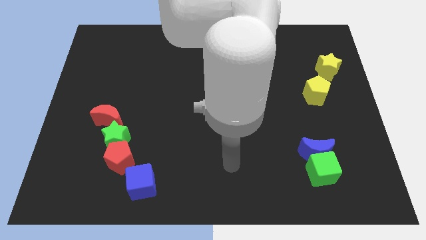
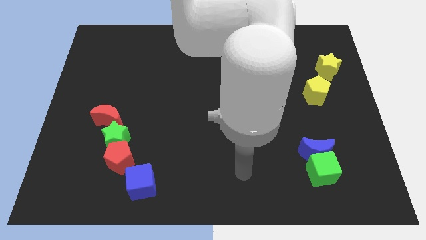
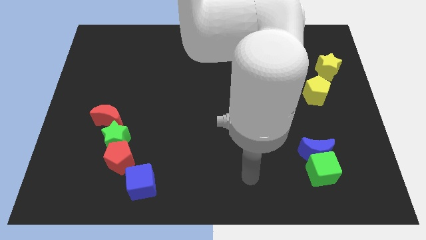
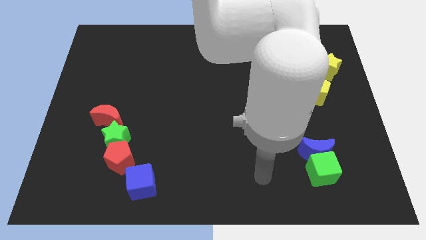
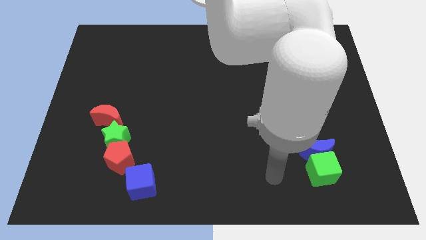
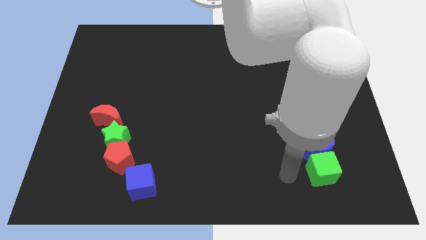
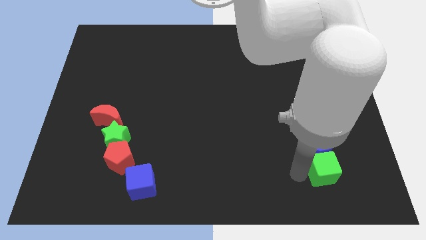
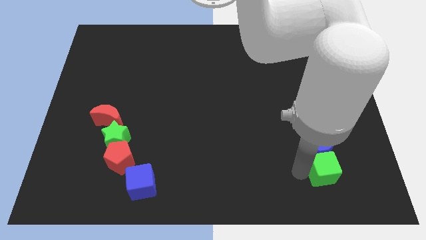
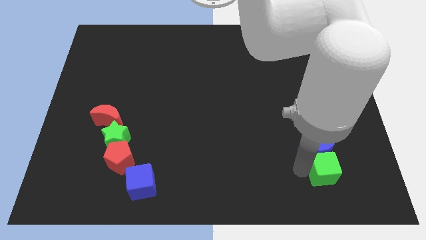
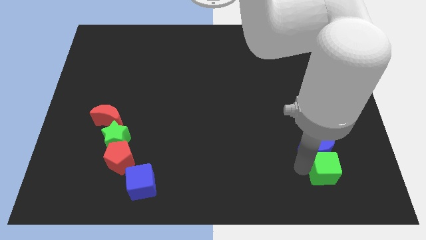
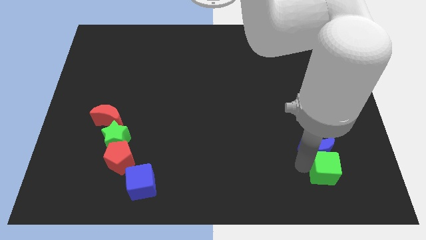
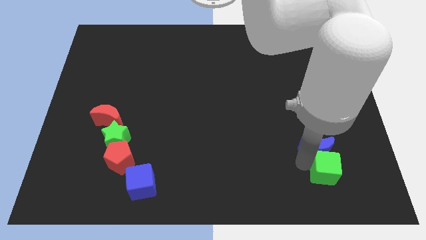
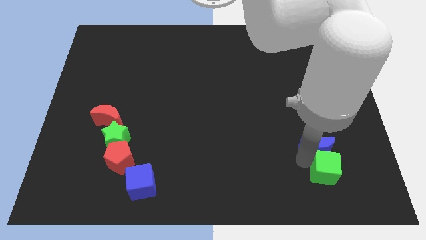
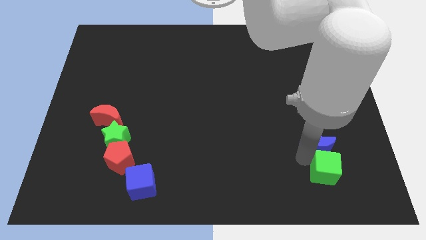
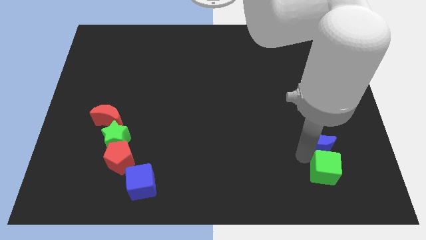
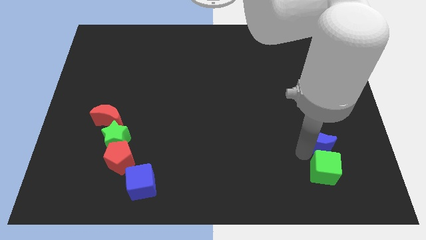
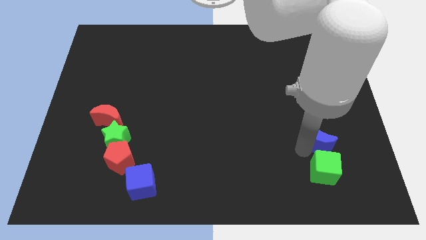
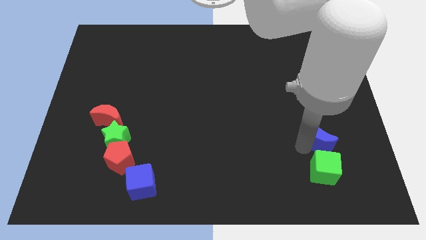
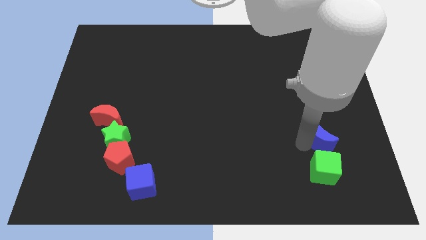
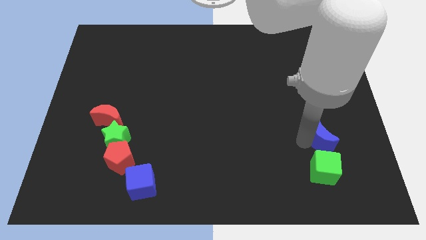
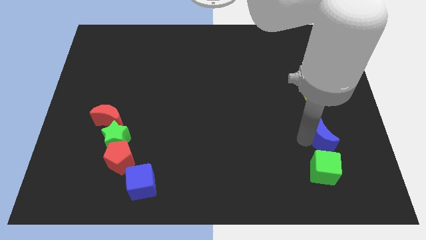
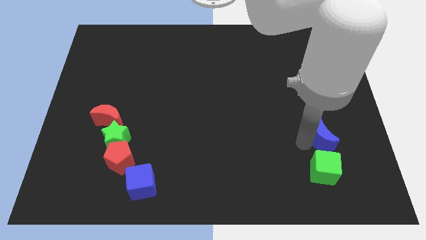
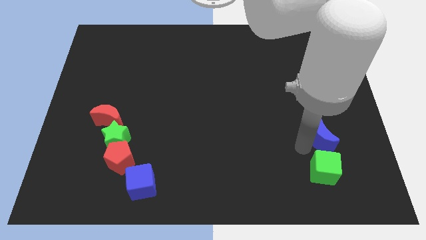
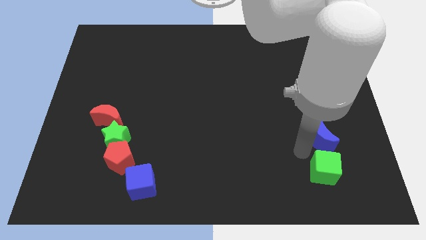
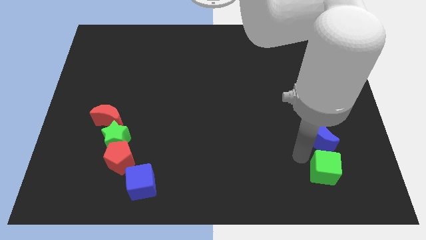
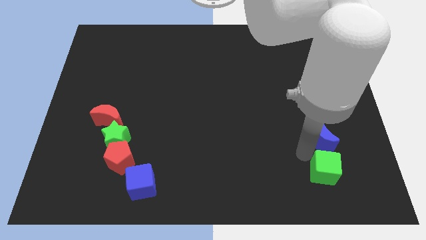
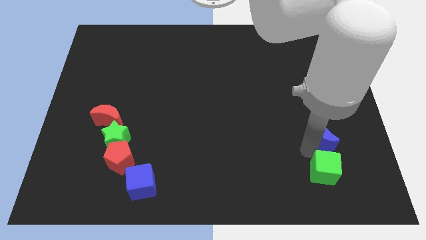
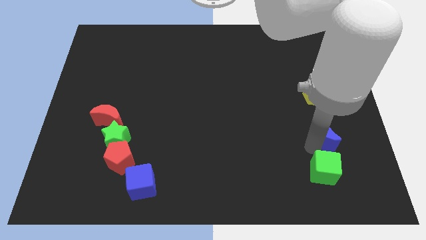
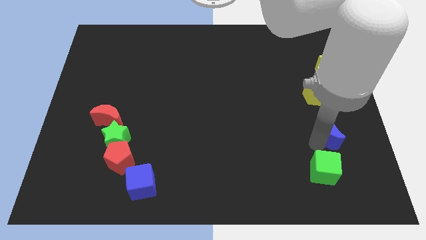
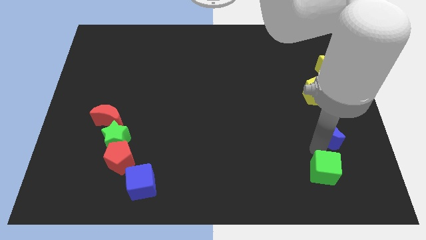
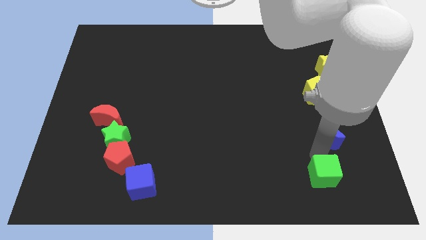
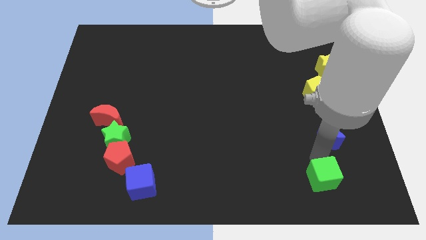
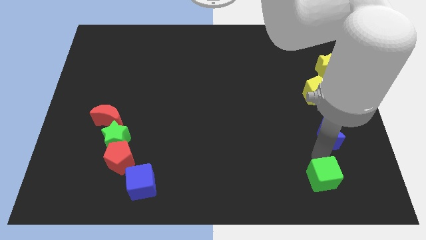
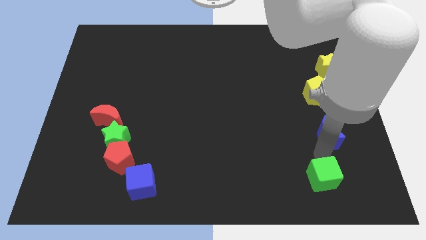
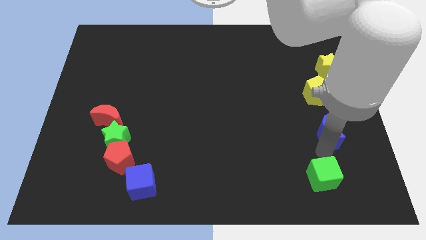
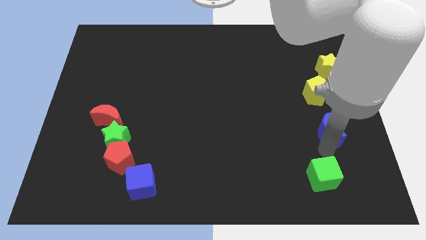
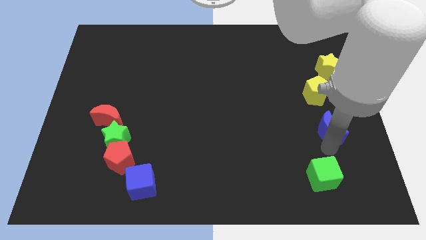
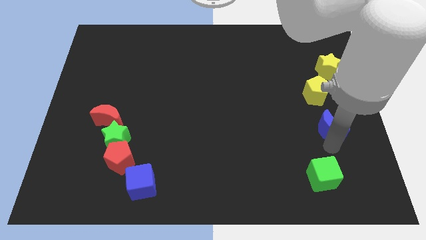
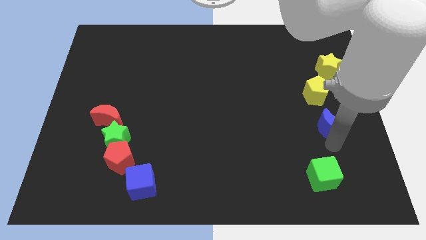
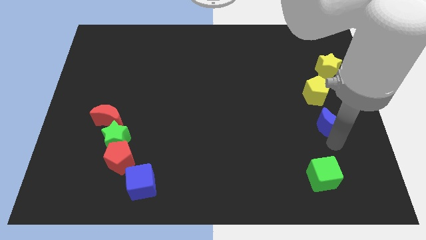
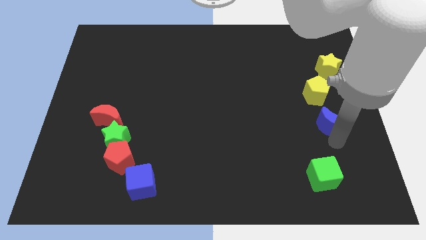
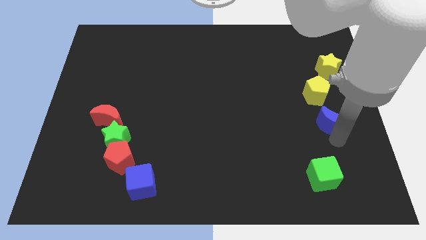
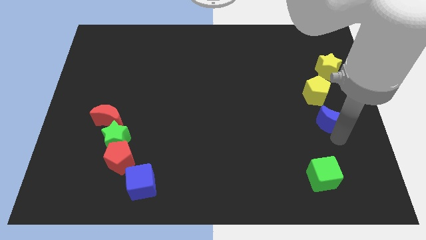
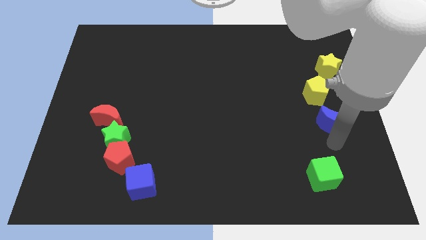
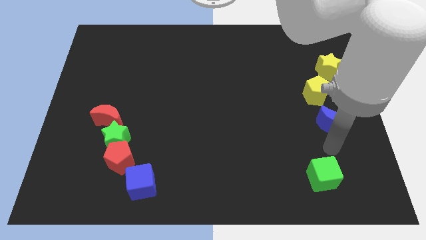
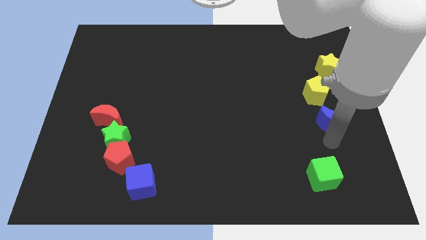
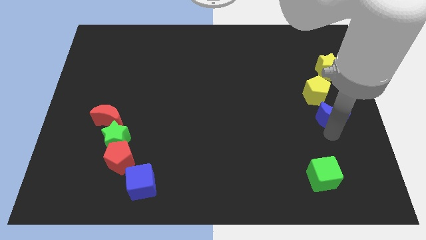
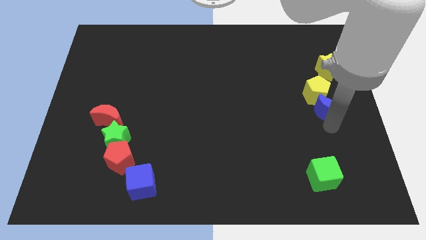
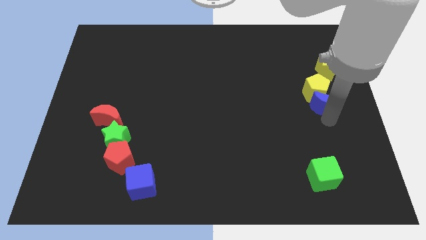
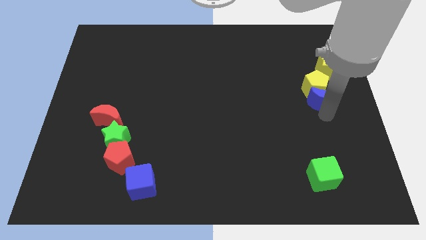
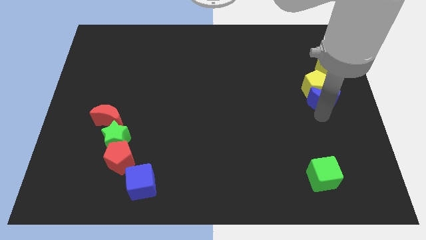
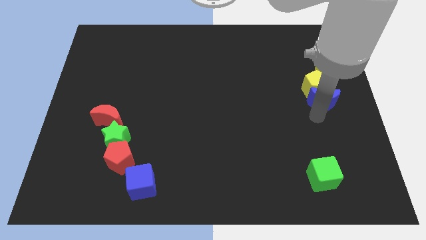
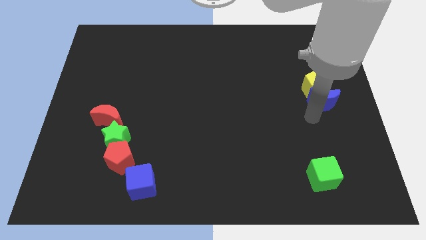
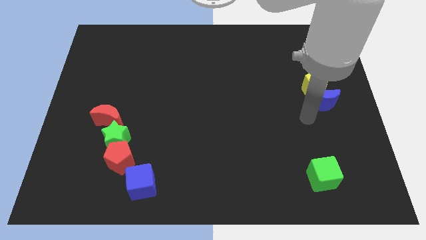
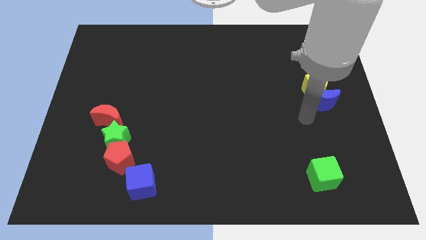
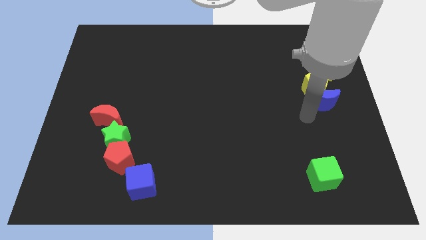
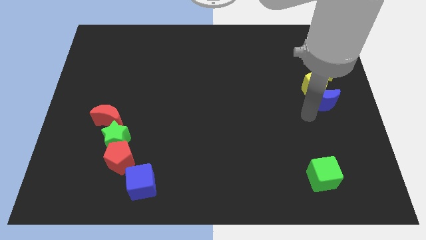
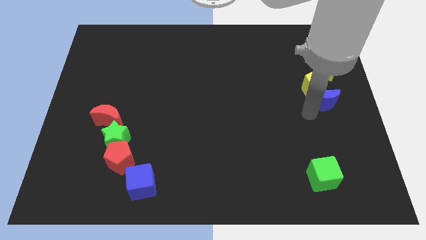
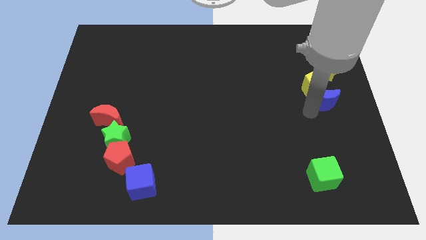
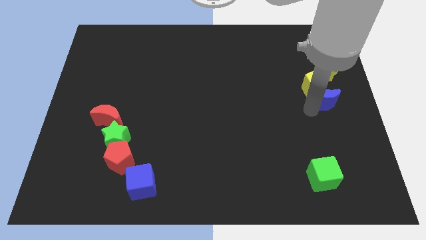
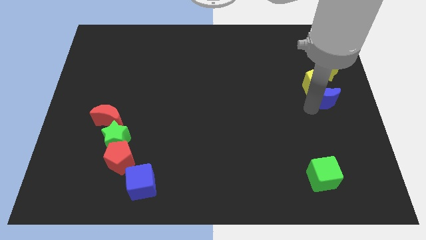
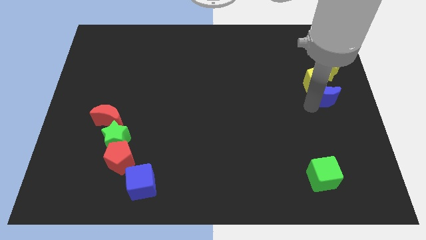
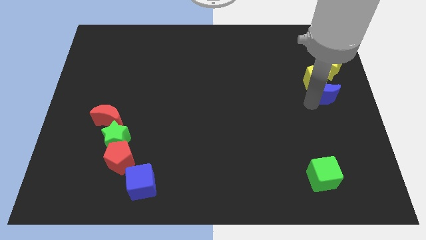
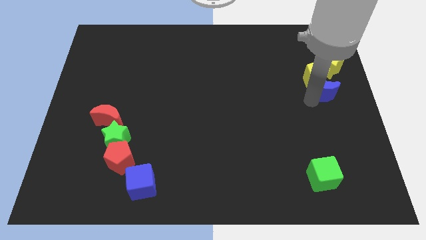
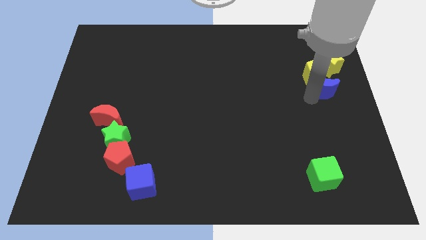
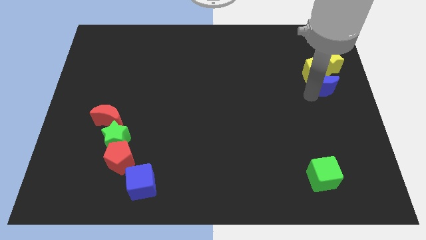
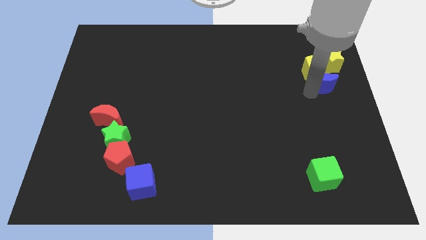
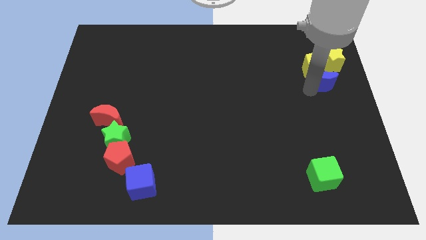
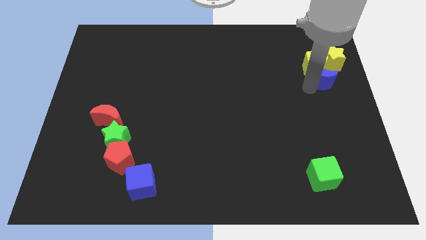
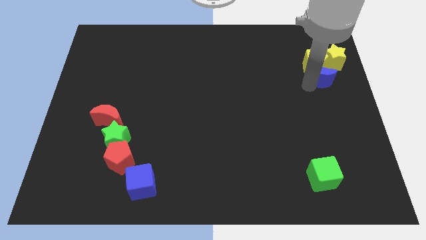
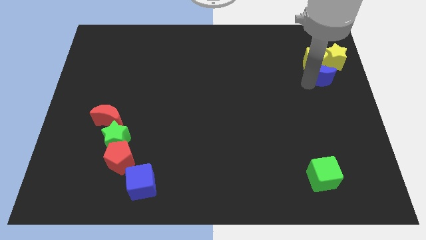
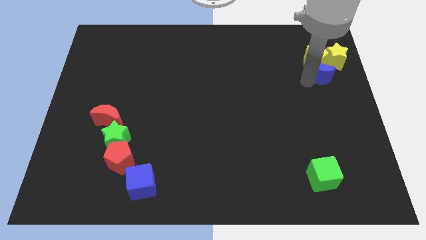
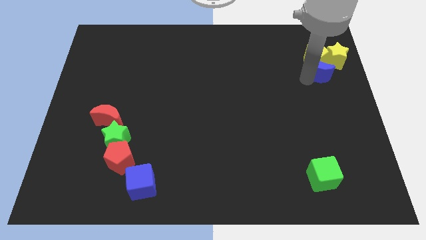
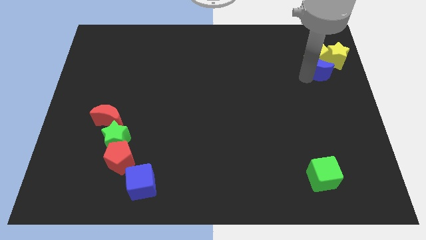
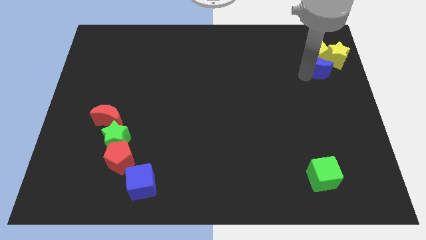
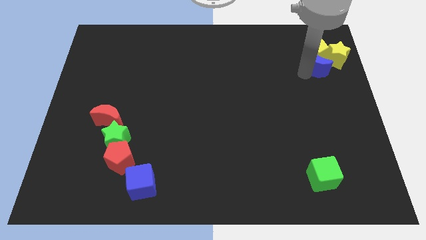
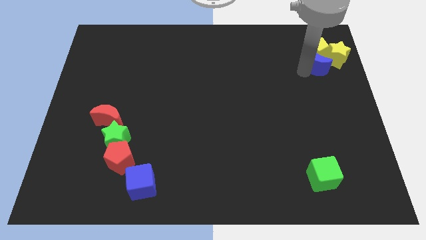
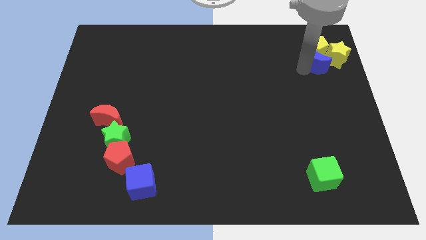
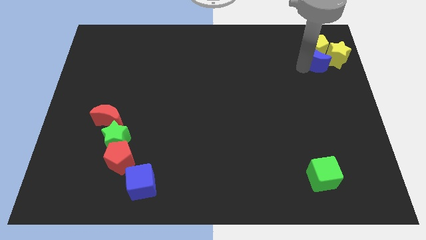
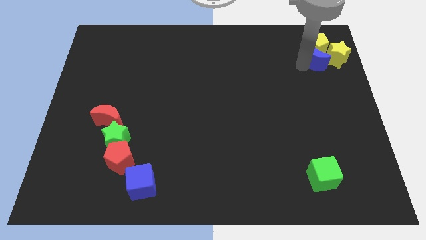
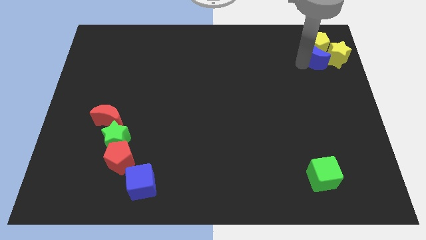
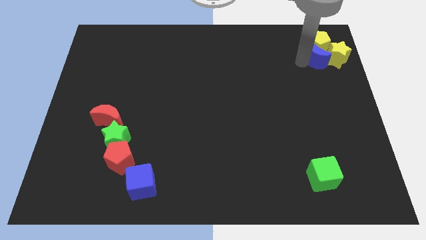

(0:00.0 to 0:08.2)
push the blue moon next to the yellow star

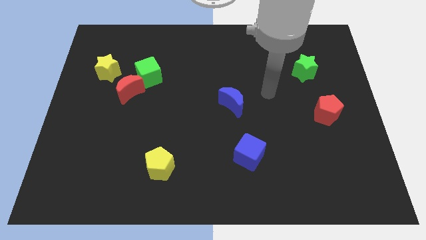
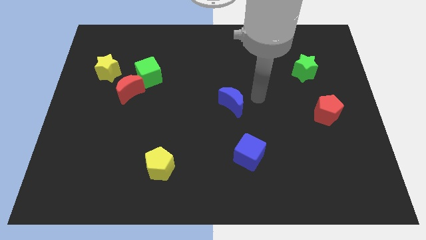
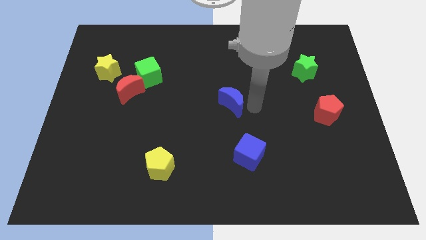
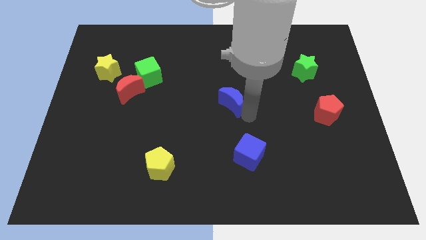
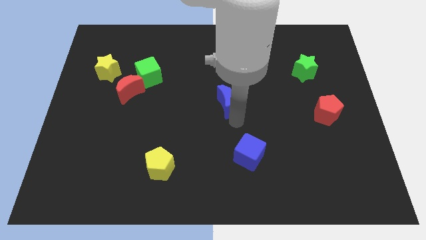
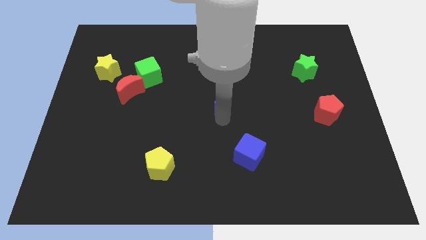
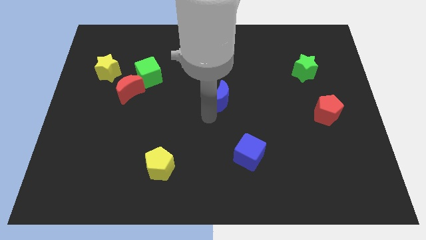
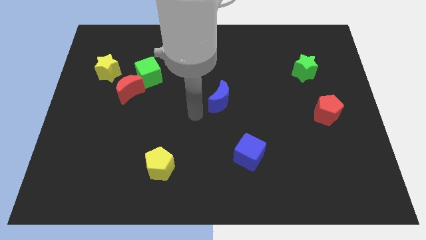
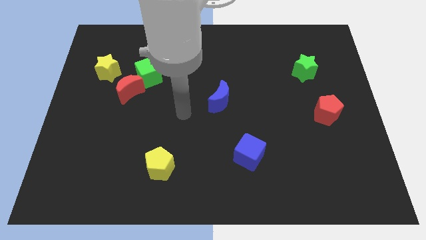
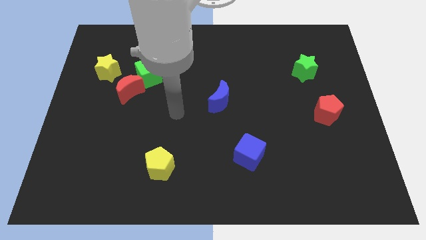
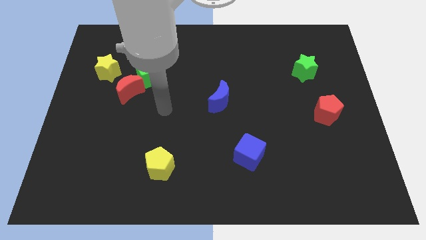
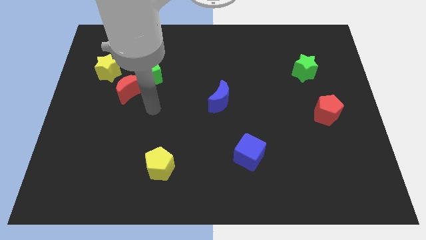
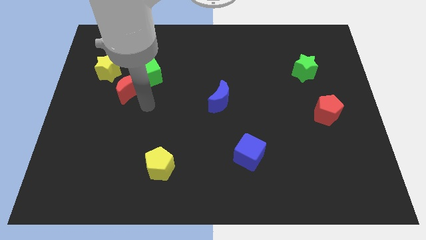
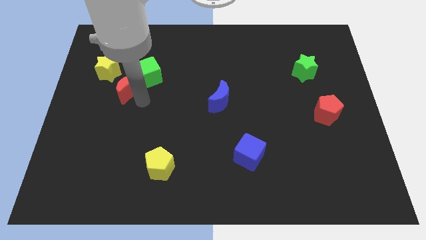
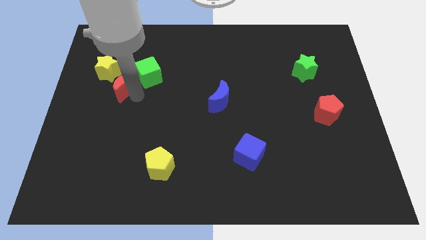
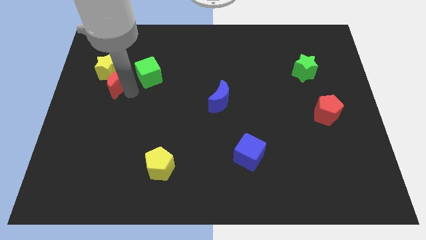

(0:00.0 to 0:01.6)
slide the red moon towards the yellow star
